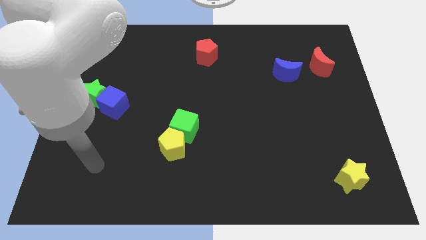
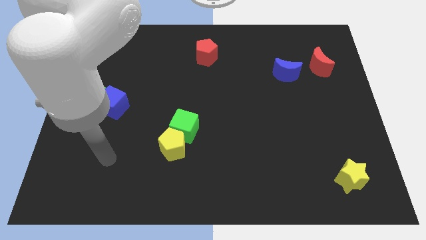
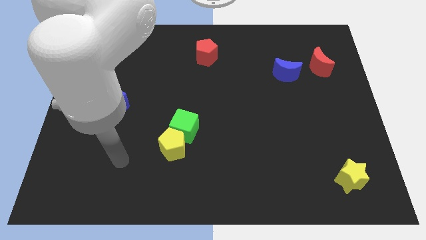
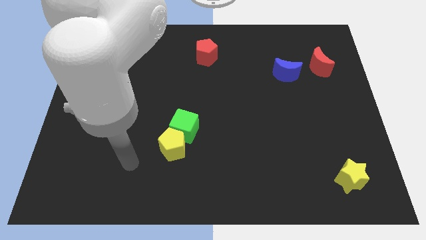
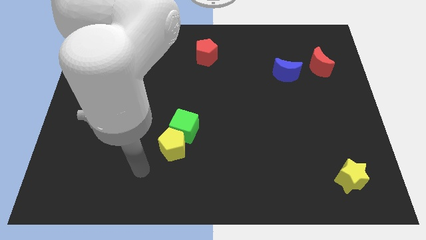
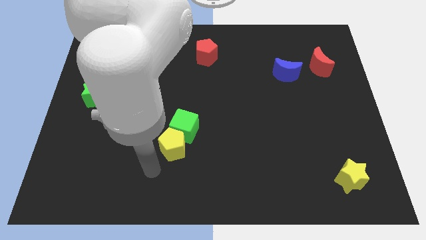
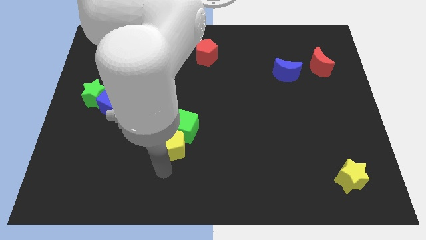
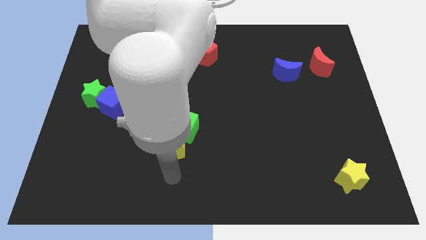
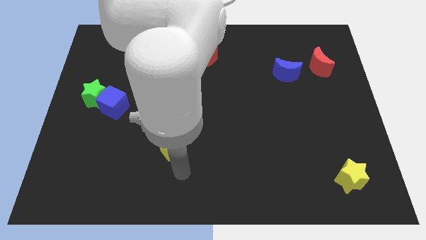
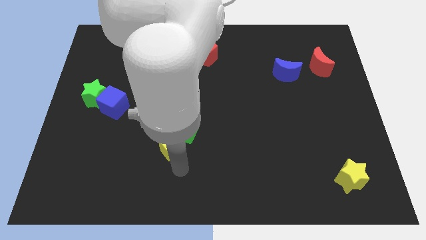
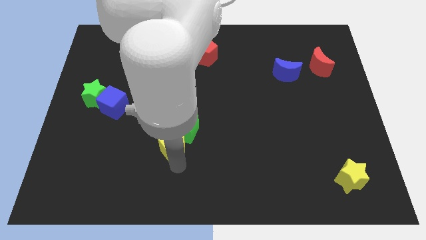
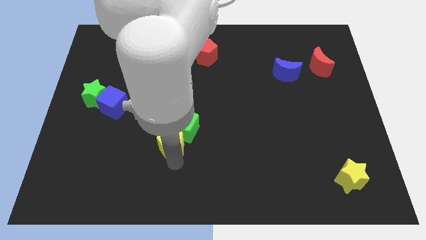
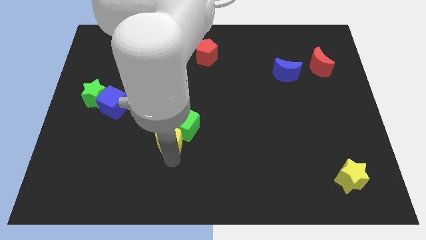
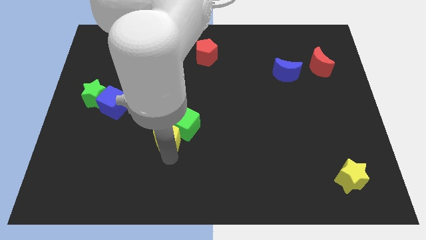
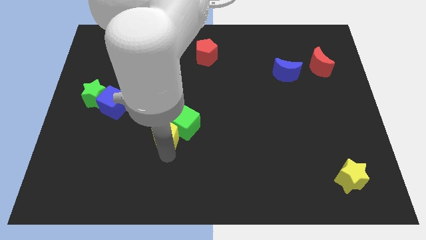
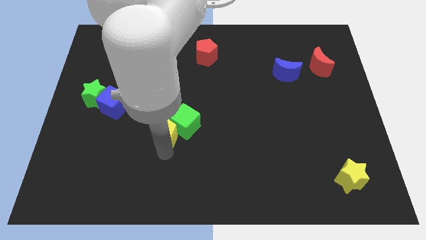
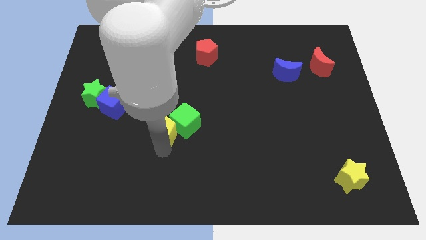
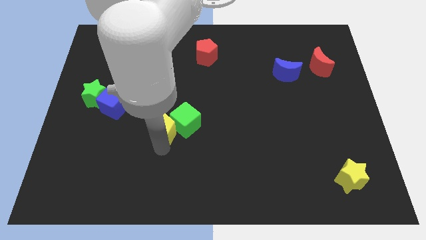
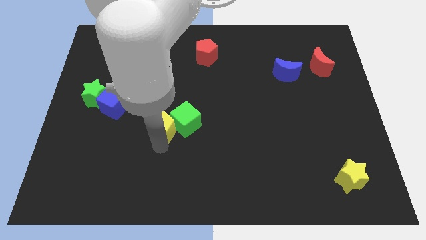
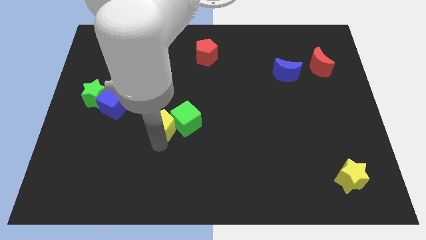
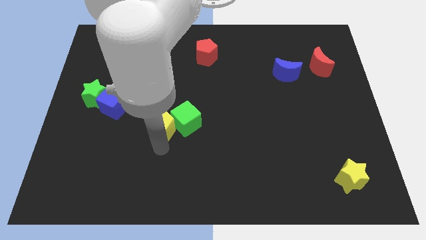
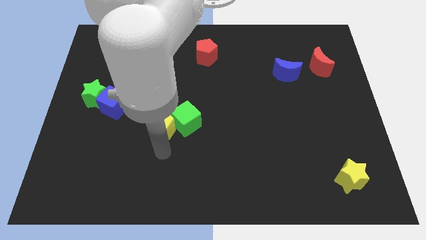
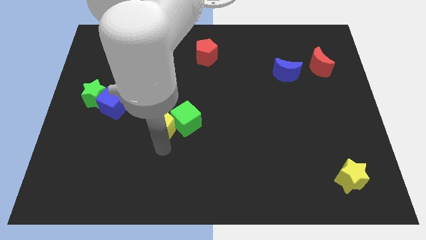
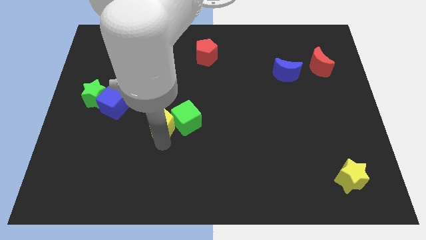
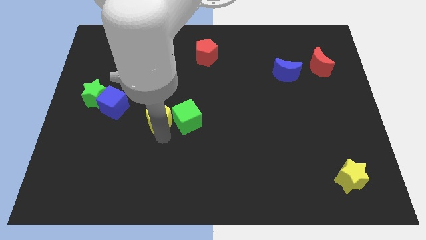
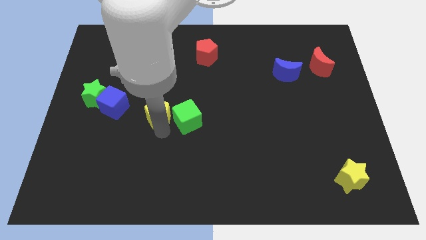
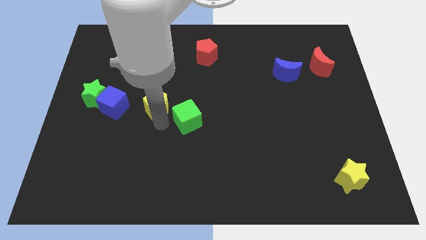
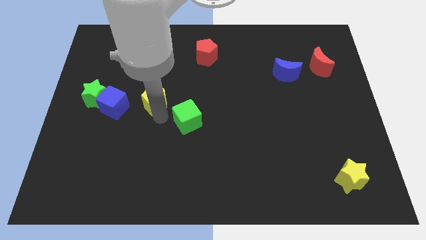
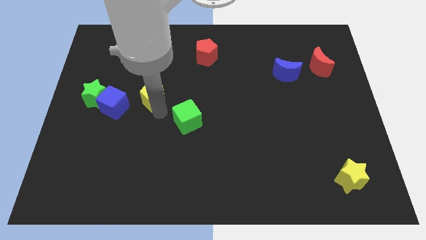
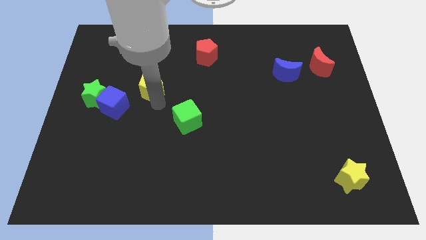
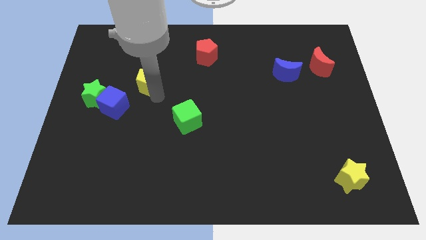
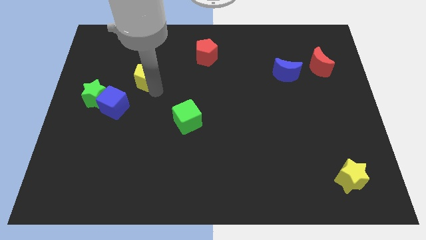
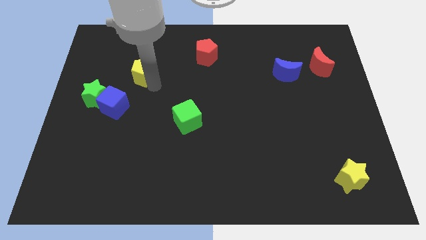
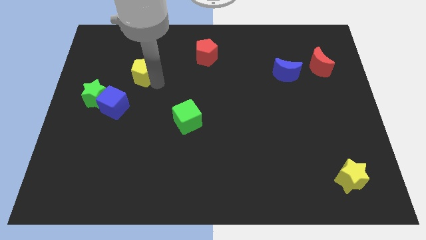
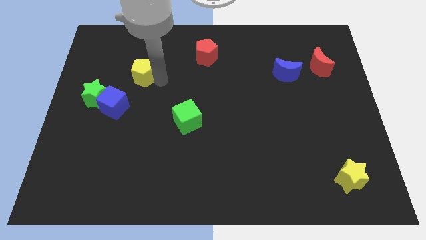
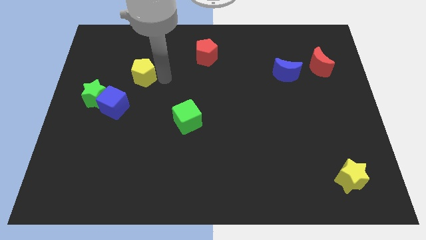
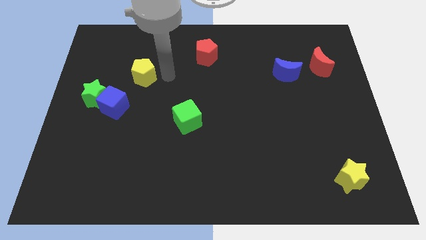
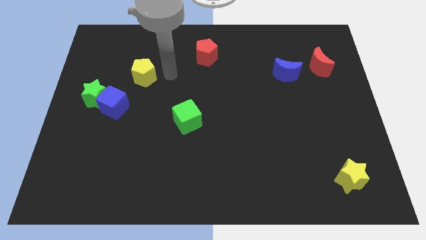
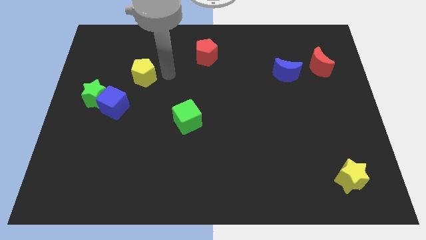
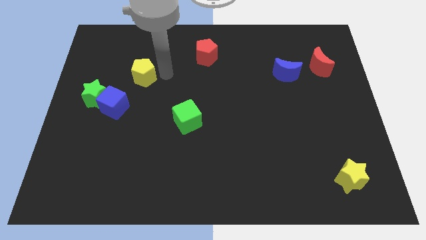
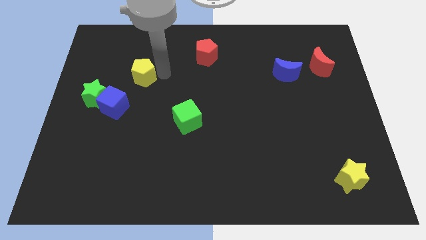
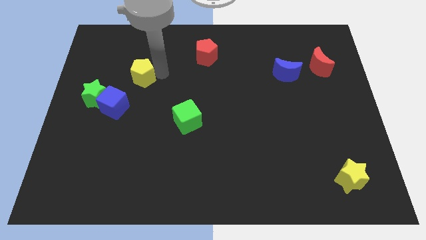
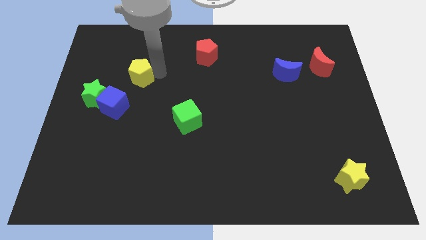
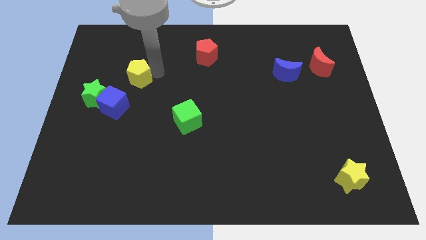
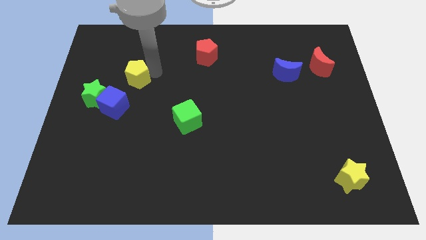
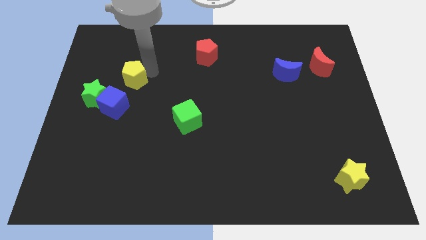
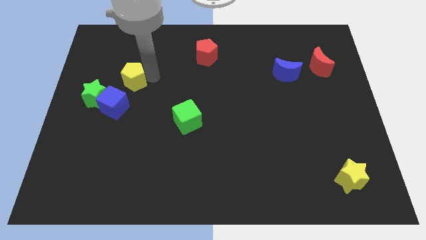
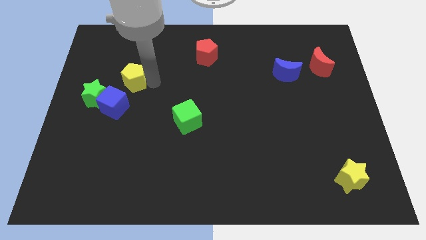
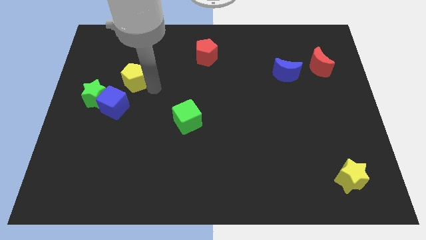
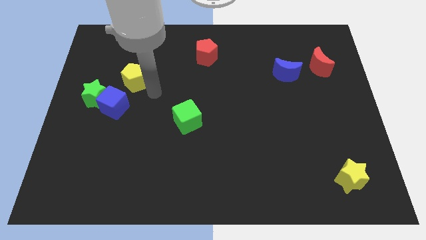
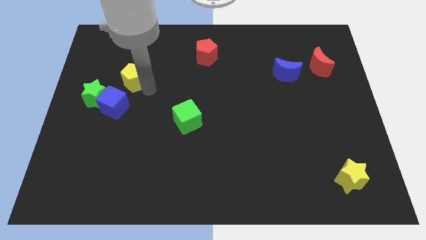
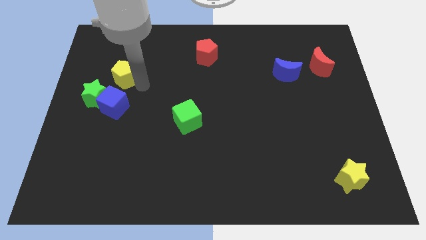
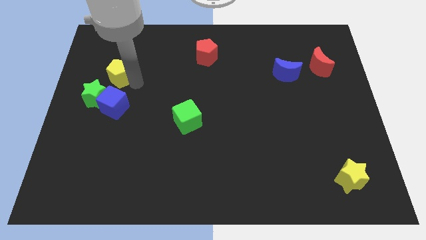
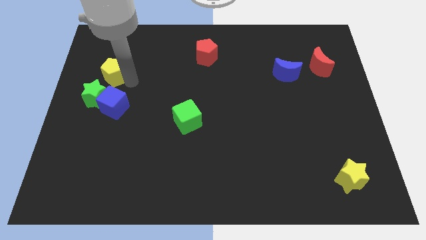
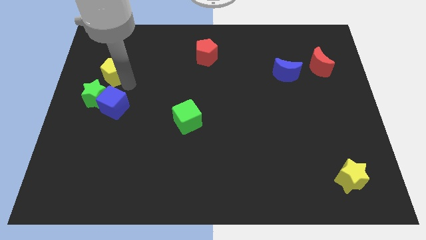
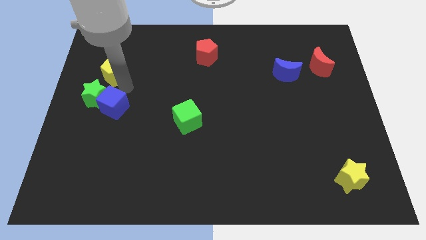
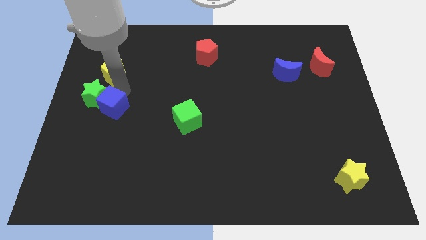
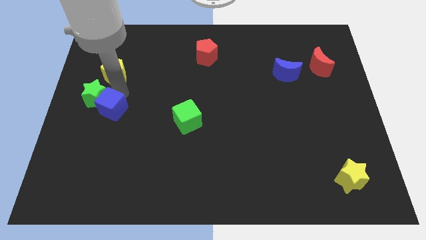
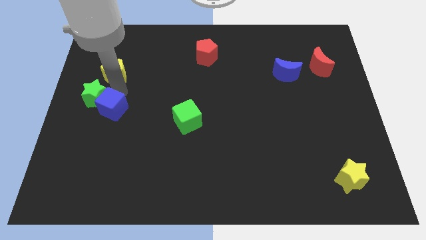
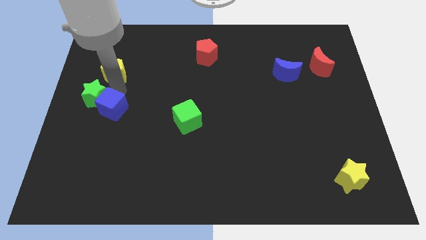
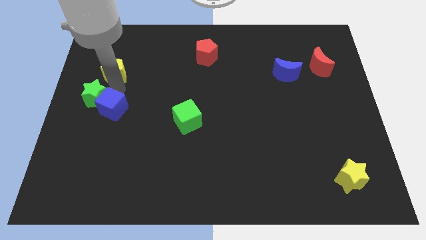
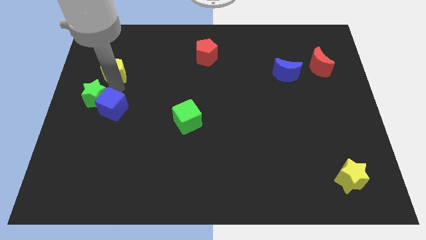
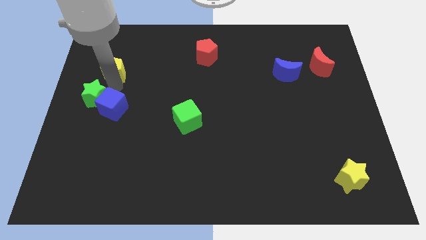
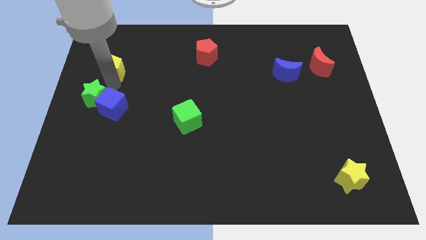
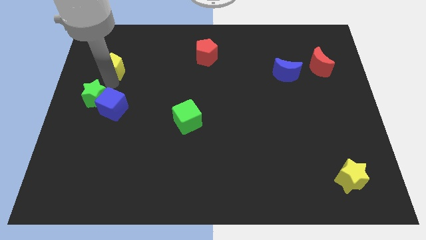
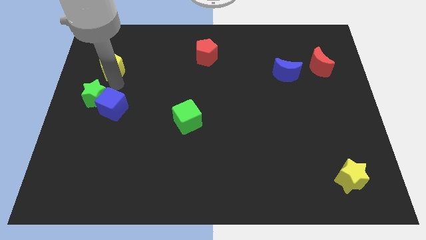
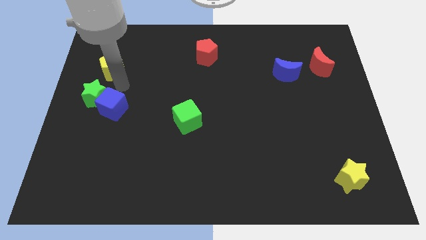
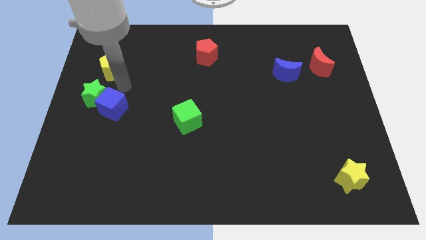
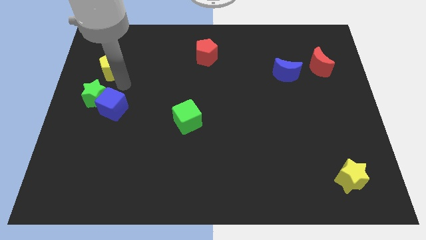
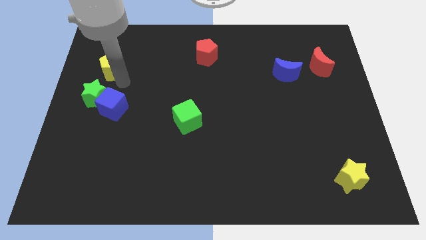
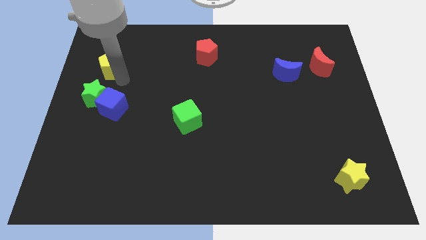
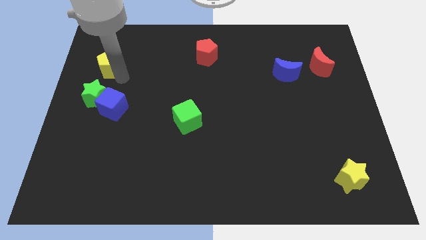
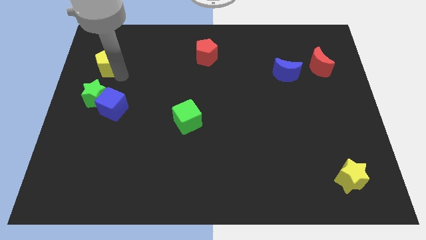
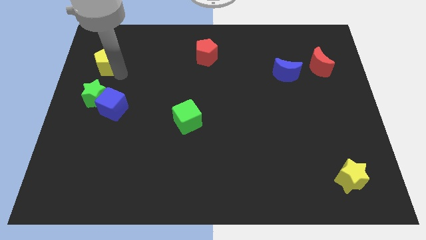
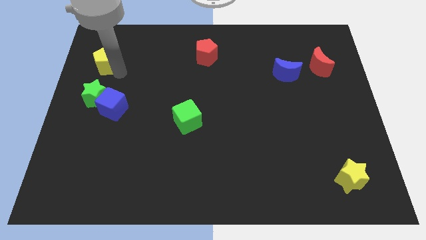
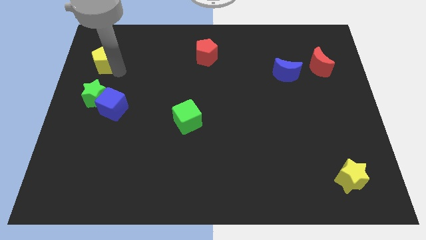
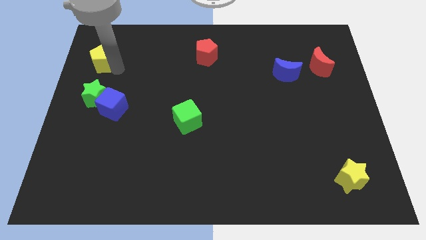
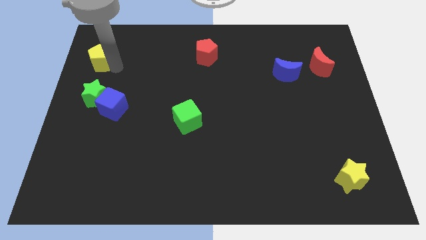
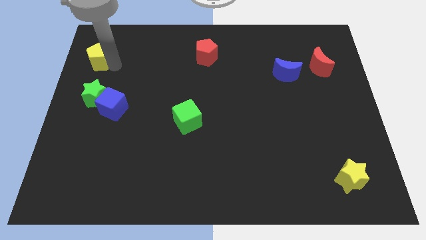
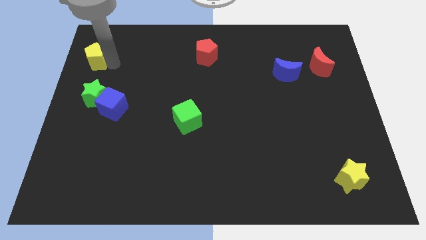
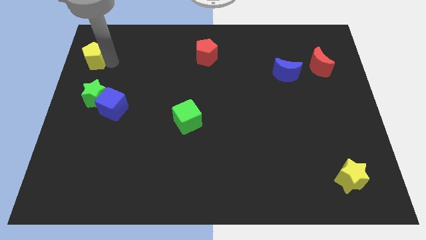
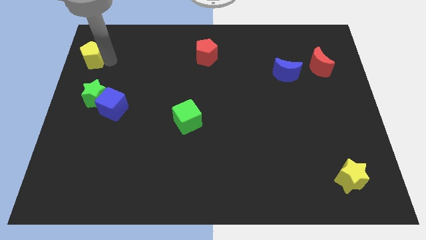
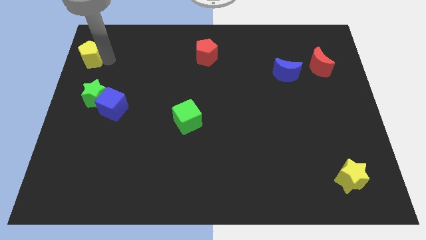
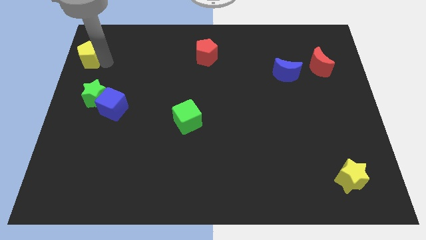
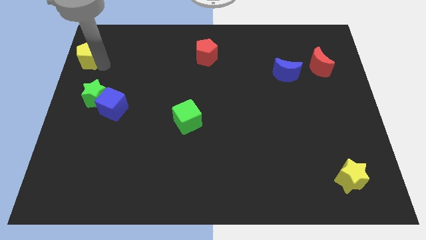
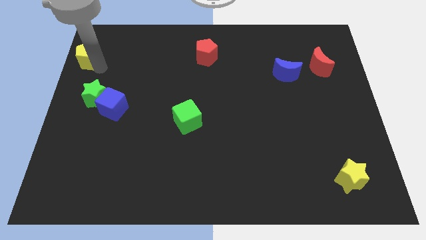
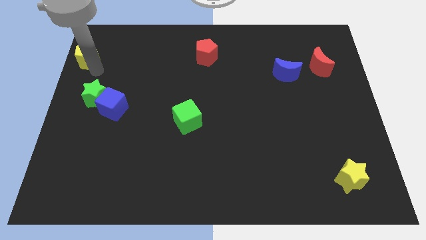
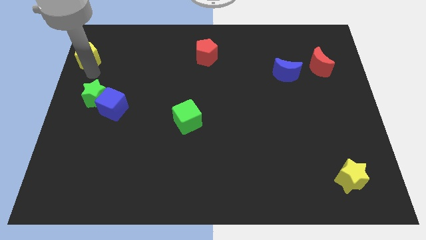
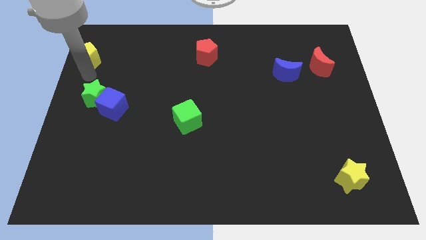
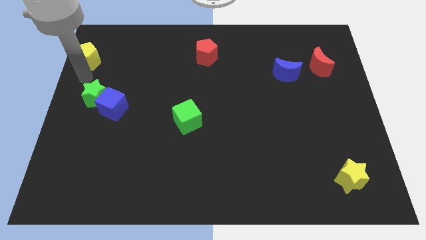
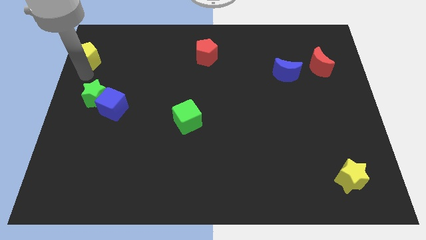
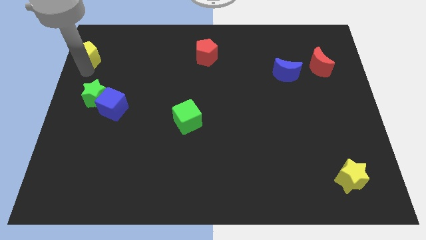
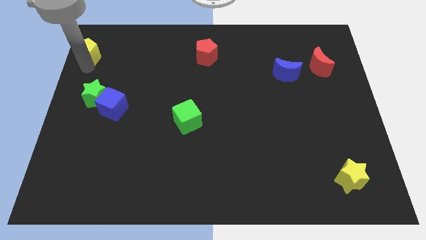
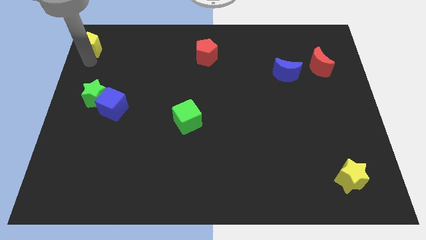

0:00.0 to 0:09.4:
move the yellow pentagon to the upper left corner
